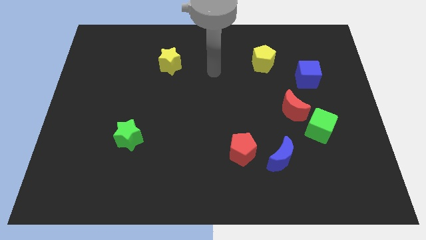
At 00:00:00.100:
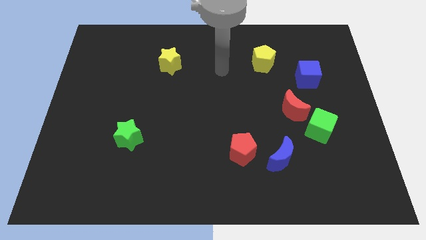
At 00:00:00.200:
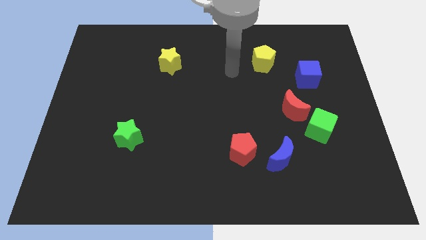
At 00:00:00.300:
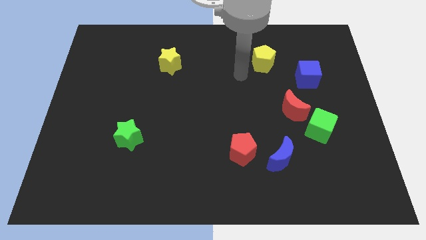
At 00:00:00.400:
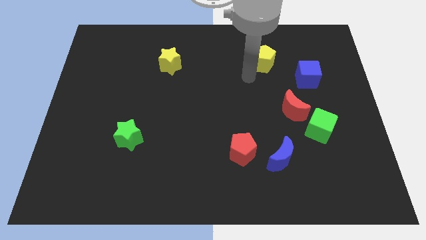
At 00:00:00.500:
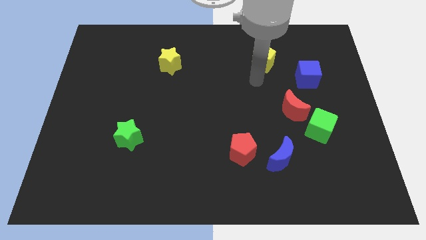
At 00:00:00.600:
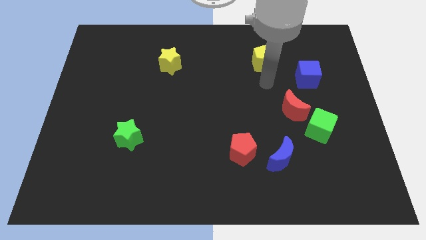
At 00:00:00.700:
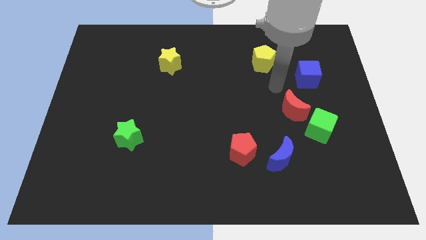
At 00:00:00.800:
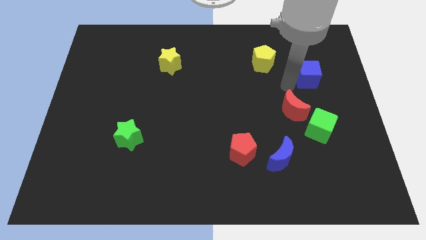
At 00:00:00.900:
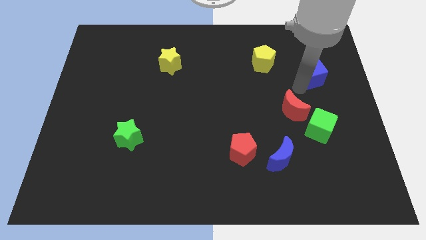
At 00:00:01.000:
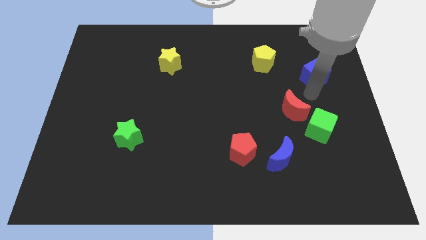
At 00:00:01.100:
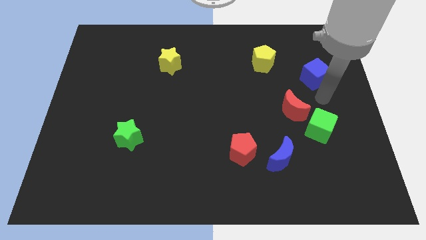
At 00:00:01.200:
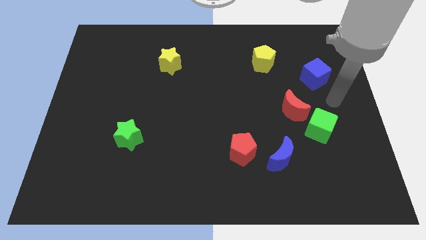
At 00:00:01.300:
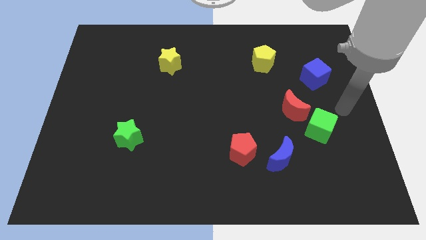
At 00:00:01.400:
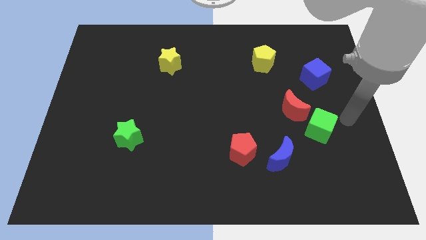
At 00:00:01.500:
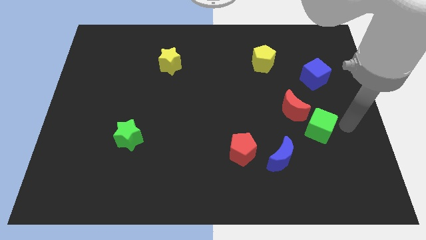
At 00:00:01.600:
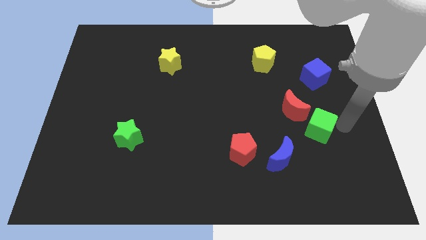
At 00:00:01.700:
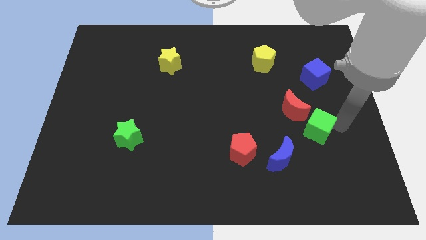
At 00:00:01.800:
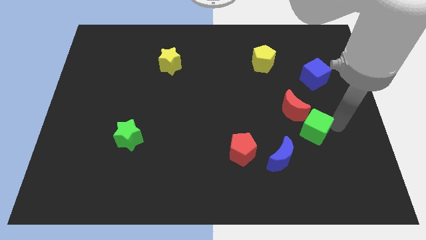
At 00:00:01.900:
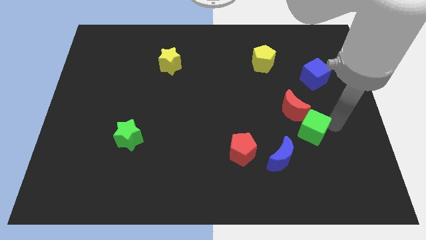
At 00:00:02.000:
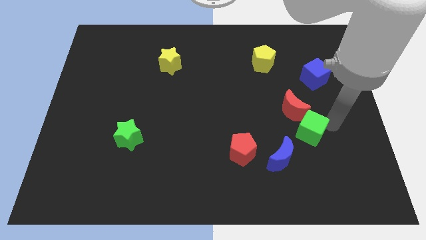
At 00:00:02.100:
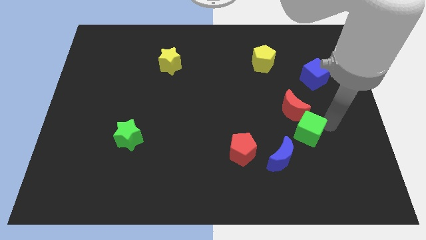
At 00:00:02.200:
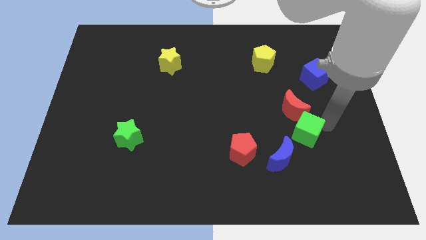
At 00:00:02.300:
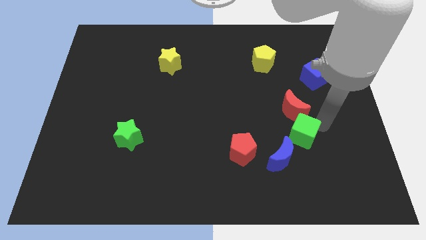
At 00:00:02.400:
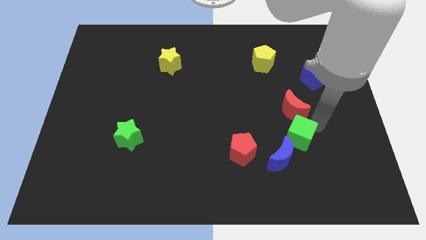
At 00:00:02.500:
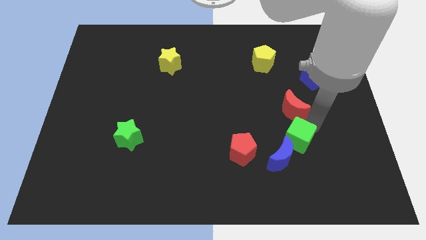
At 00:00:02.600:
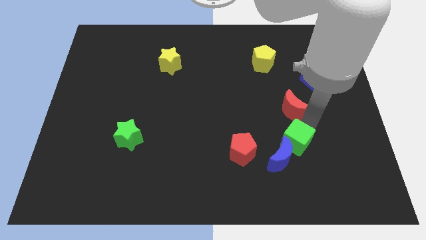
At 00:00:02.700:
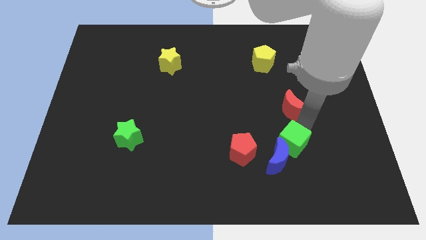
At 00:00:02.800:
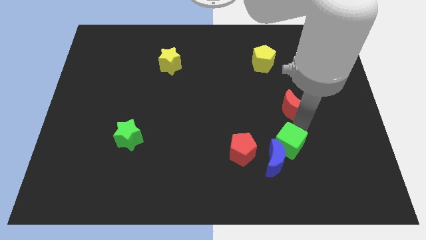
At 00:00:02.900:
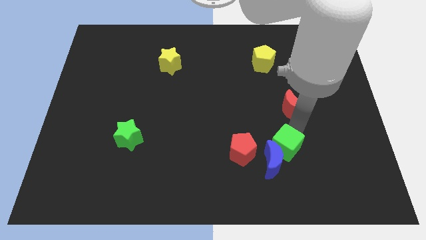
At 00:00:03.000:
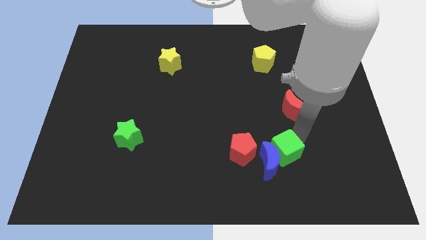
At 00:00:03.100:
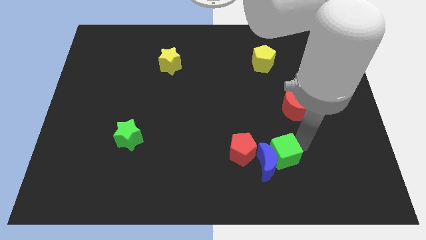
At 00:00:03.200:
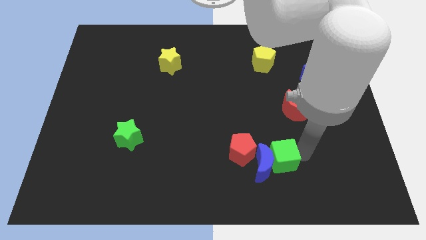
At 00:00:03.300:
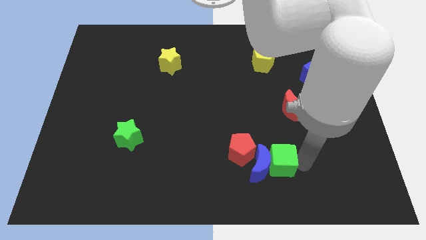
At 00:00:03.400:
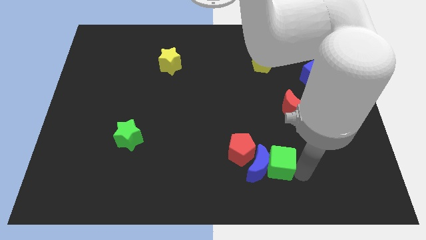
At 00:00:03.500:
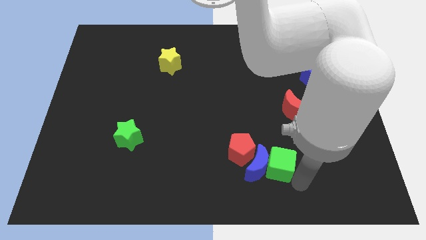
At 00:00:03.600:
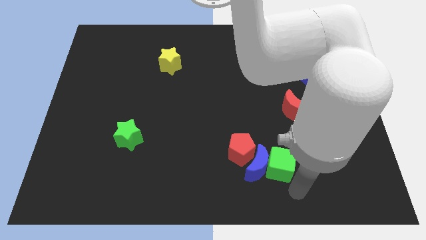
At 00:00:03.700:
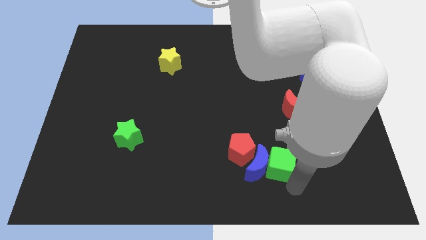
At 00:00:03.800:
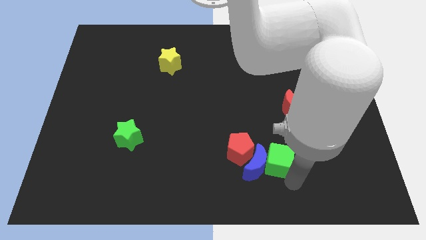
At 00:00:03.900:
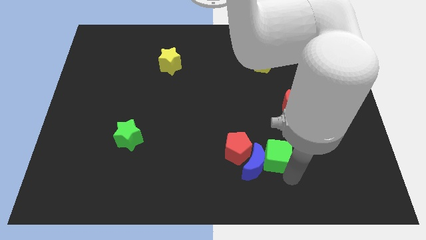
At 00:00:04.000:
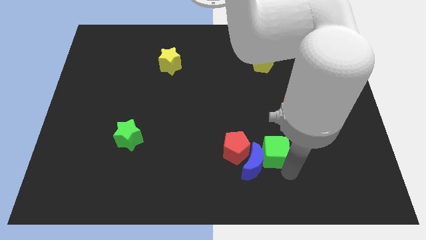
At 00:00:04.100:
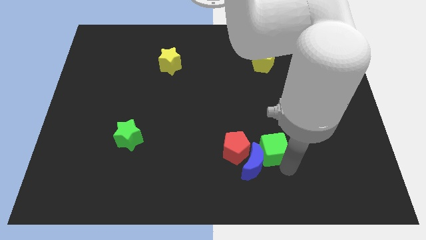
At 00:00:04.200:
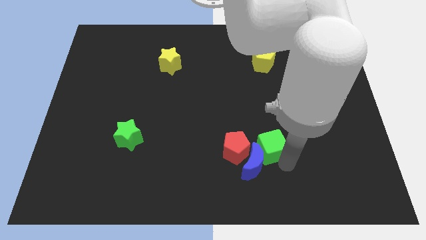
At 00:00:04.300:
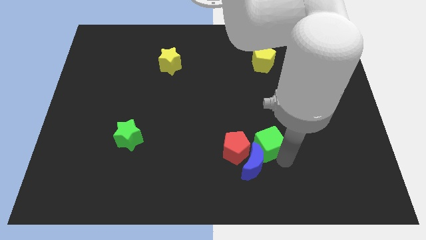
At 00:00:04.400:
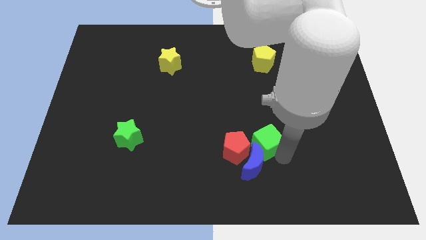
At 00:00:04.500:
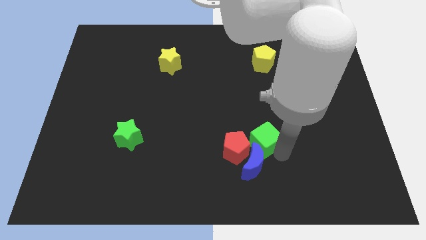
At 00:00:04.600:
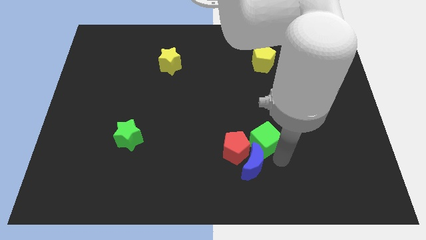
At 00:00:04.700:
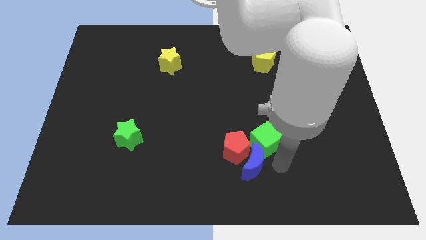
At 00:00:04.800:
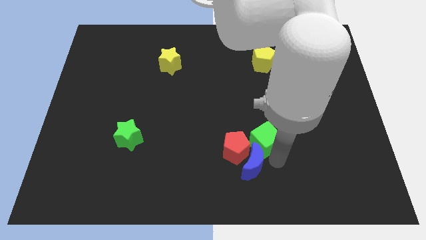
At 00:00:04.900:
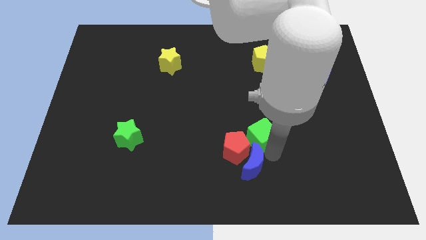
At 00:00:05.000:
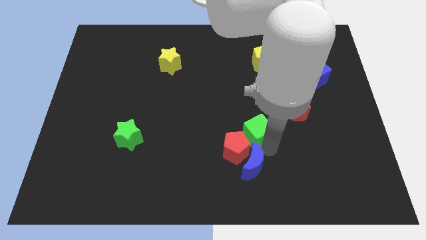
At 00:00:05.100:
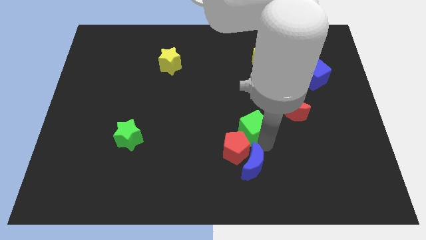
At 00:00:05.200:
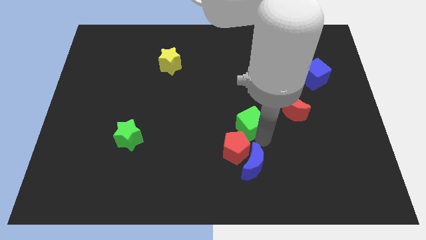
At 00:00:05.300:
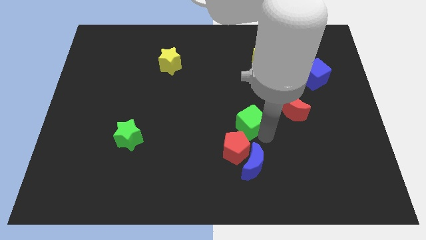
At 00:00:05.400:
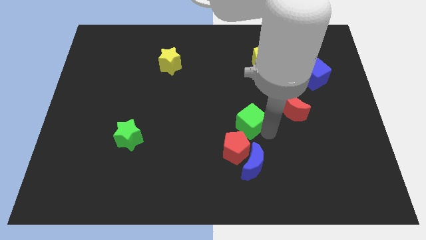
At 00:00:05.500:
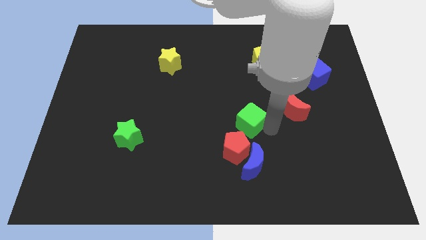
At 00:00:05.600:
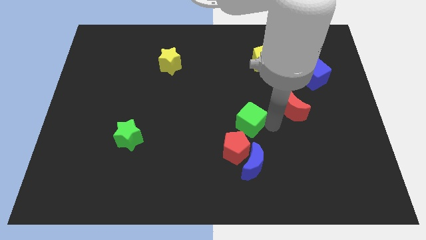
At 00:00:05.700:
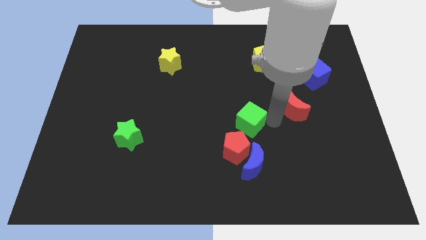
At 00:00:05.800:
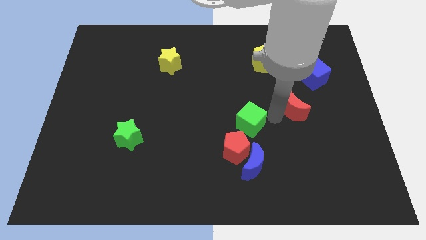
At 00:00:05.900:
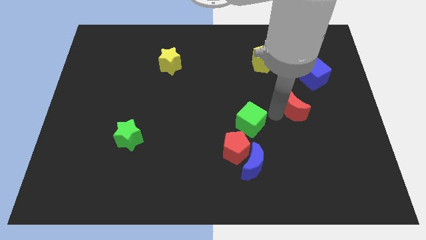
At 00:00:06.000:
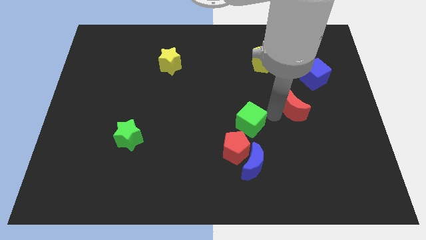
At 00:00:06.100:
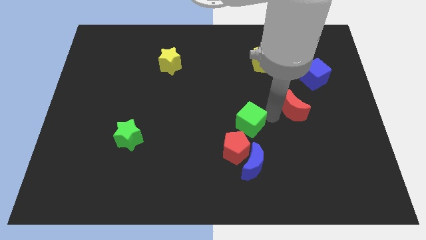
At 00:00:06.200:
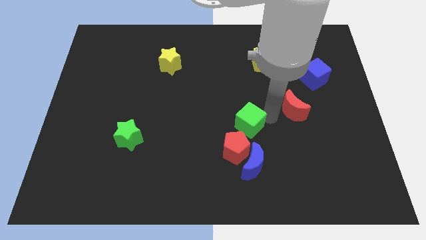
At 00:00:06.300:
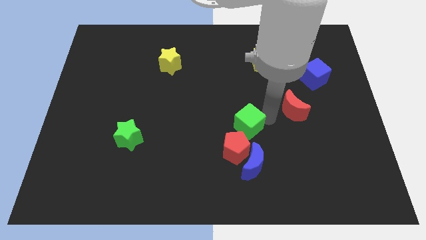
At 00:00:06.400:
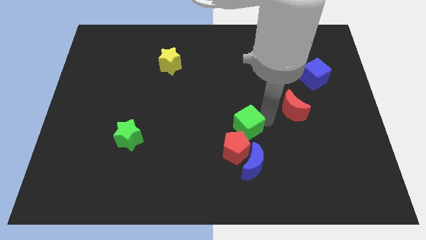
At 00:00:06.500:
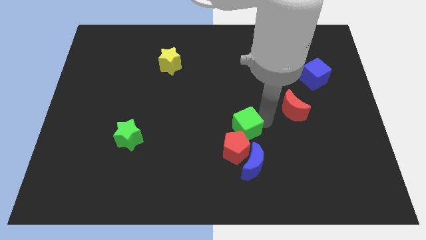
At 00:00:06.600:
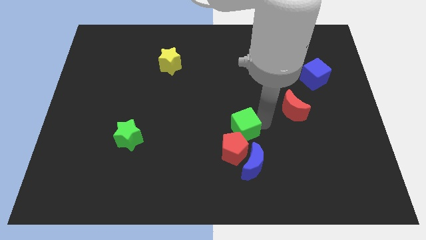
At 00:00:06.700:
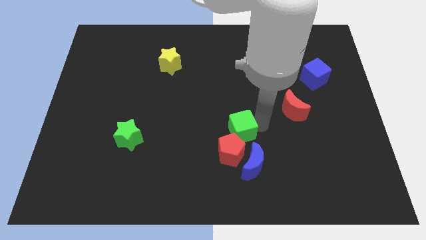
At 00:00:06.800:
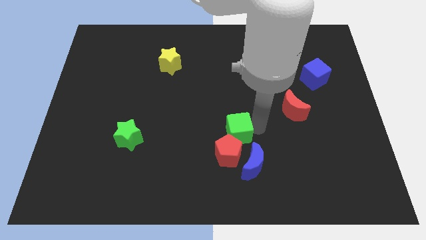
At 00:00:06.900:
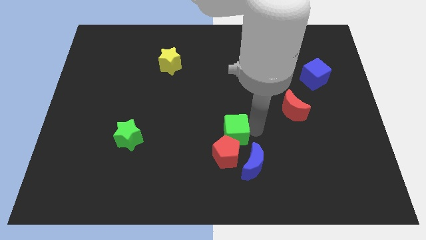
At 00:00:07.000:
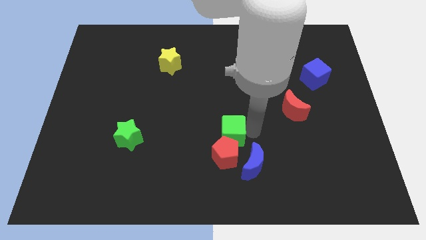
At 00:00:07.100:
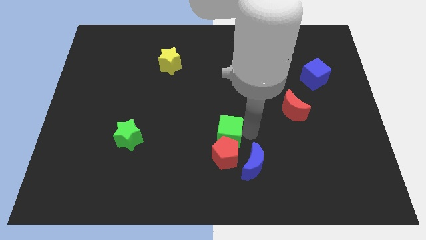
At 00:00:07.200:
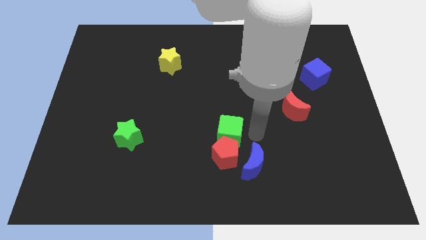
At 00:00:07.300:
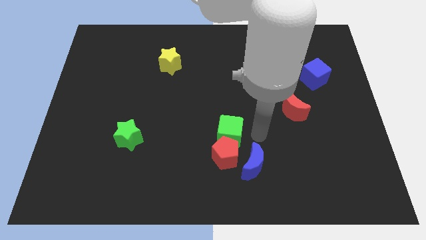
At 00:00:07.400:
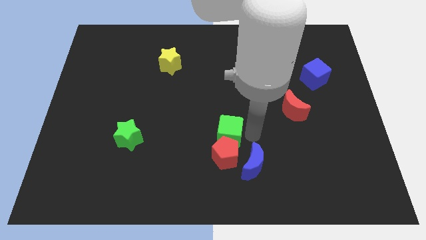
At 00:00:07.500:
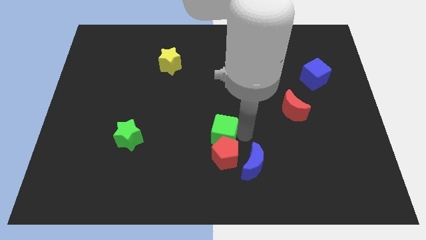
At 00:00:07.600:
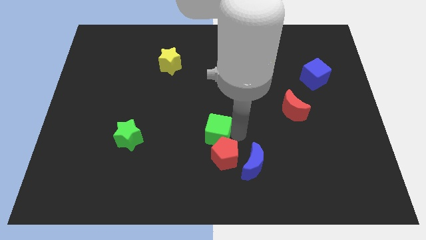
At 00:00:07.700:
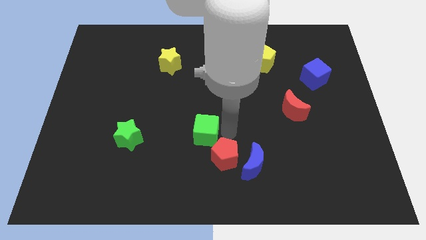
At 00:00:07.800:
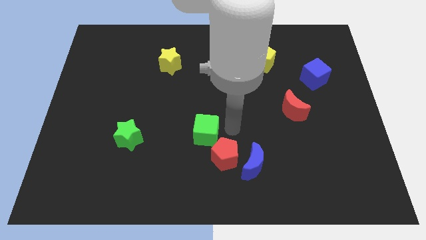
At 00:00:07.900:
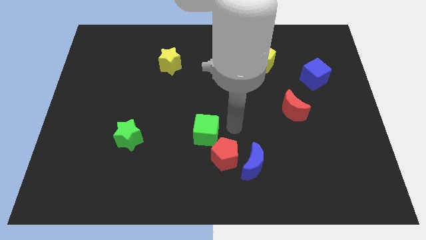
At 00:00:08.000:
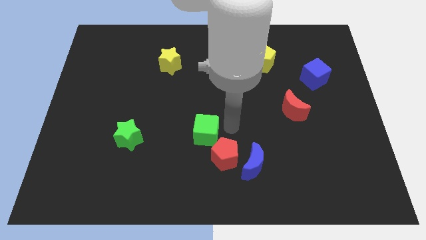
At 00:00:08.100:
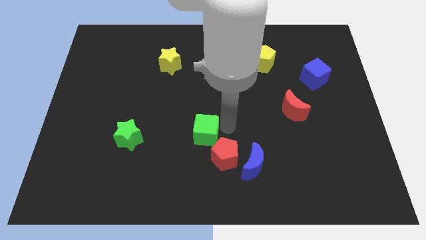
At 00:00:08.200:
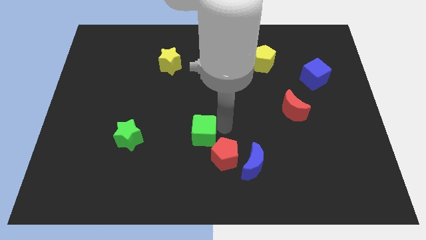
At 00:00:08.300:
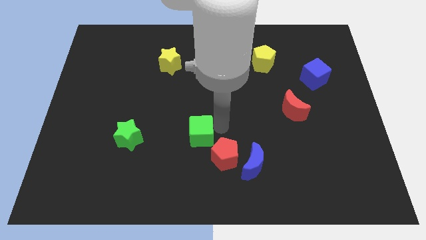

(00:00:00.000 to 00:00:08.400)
move the green cube right of the green star
